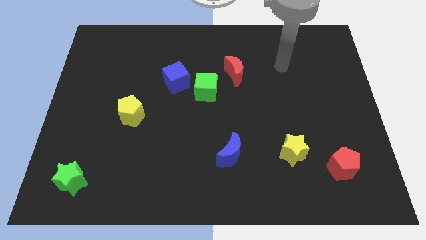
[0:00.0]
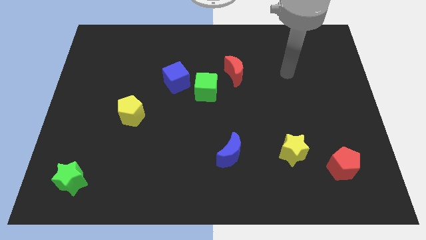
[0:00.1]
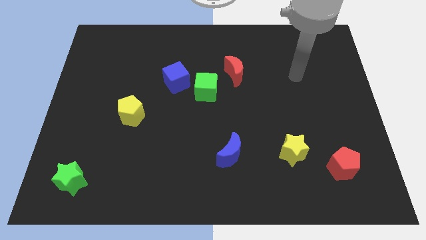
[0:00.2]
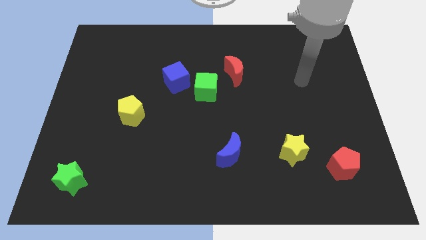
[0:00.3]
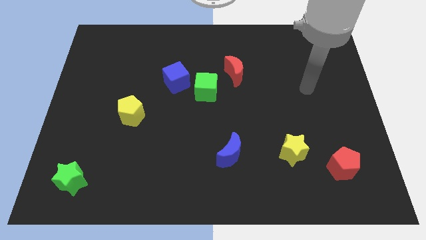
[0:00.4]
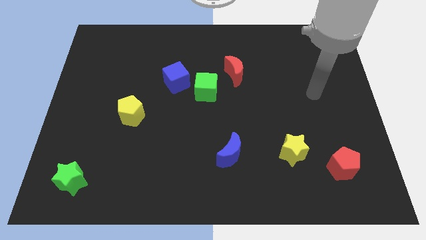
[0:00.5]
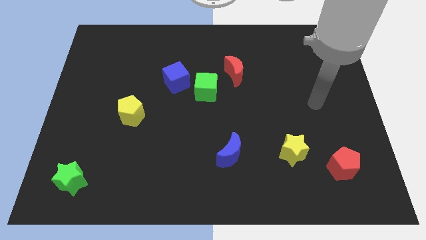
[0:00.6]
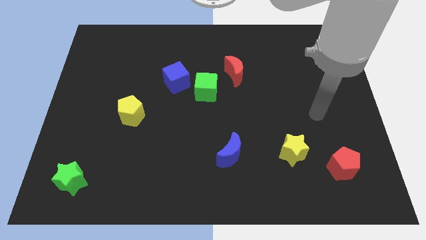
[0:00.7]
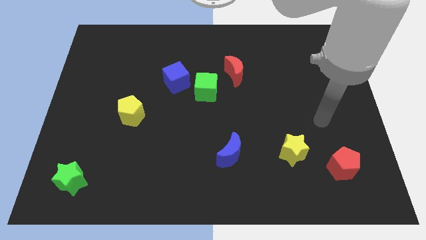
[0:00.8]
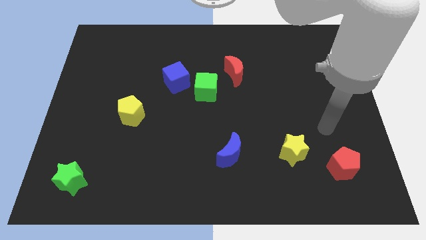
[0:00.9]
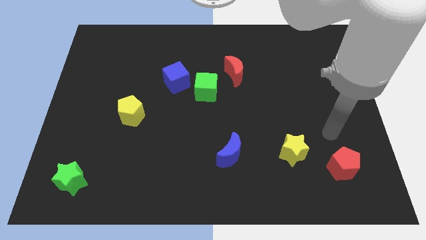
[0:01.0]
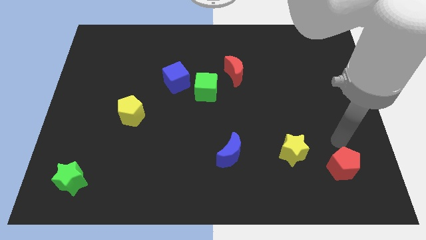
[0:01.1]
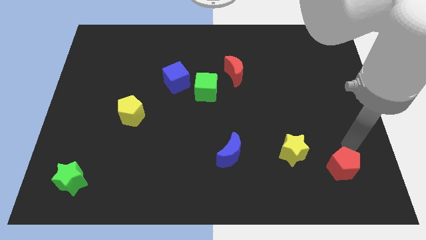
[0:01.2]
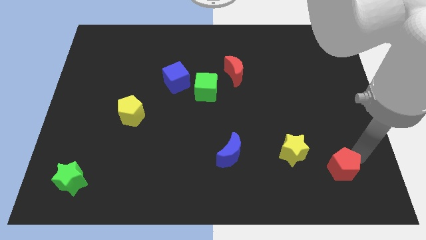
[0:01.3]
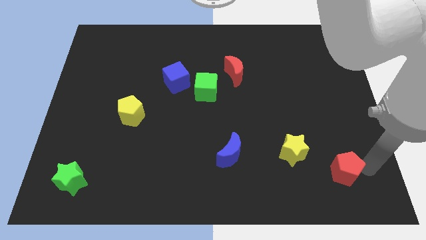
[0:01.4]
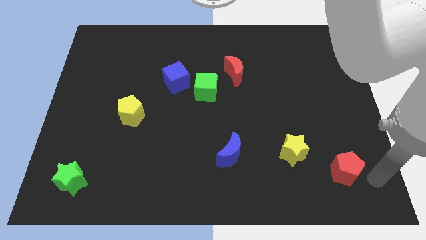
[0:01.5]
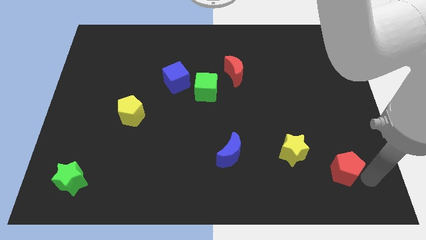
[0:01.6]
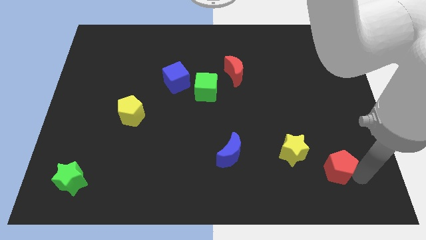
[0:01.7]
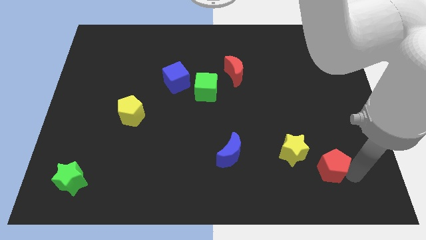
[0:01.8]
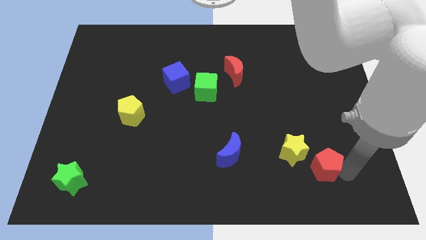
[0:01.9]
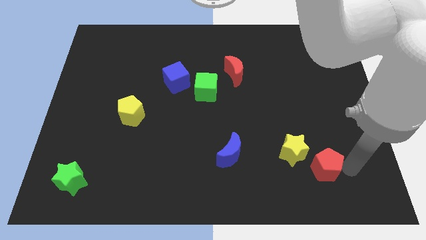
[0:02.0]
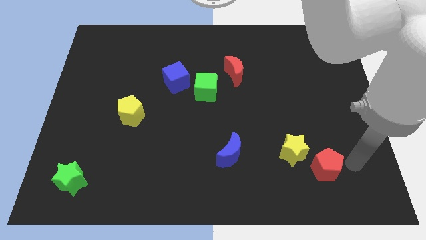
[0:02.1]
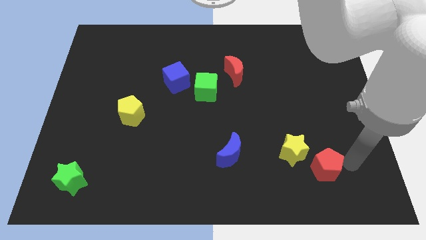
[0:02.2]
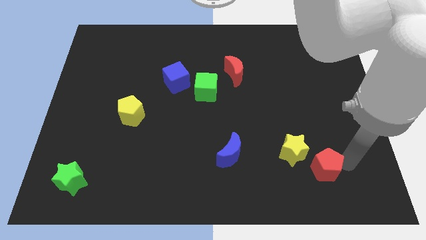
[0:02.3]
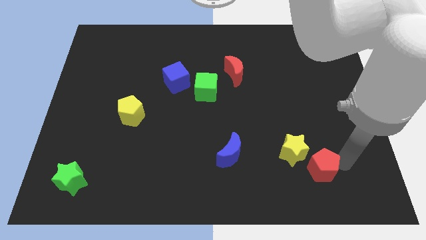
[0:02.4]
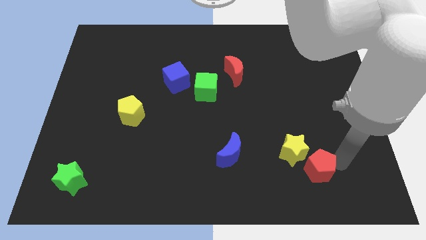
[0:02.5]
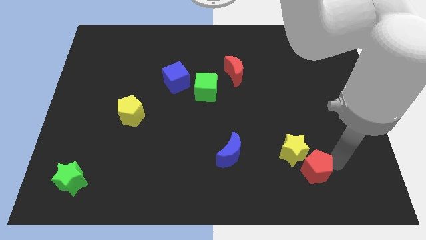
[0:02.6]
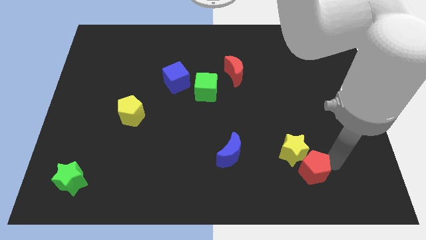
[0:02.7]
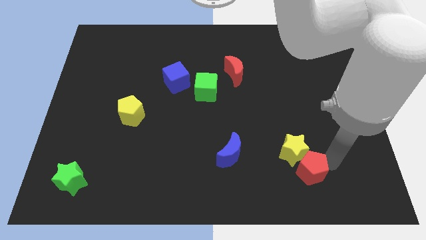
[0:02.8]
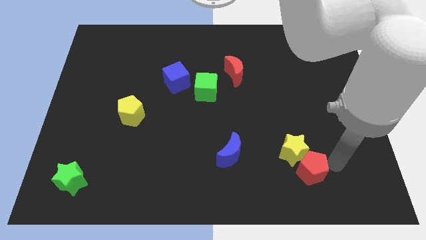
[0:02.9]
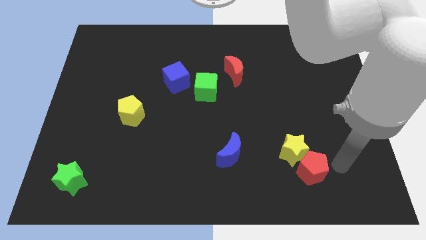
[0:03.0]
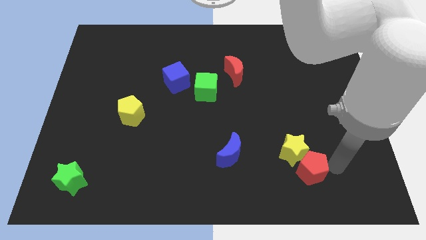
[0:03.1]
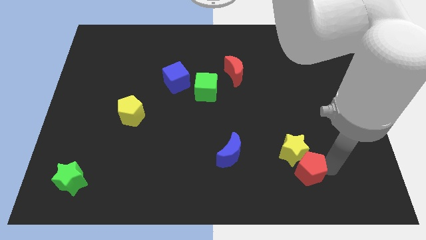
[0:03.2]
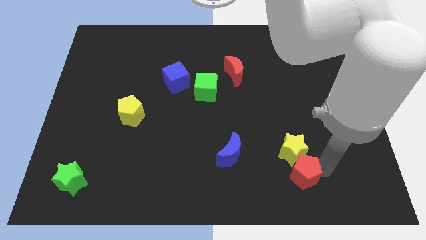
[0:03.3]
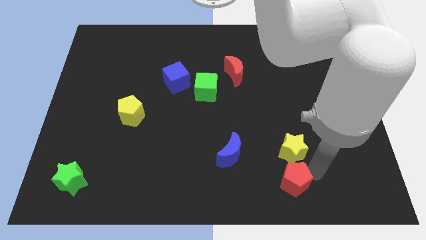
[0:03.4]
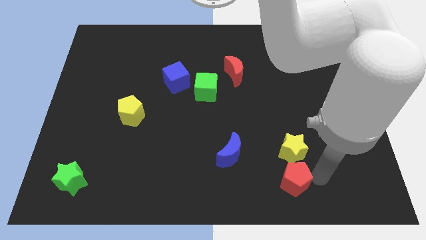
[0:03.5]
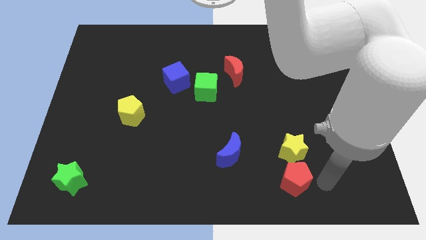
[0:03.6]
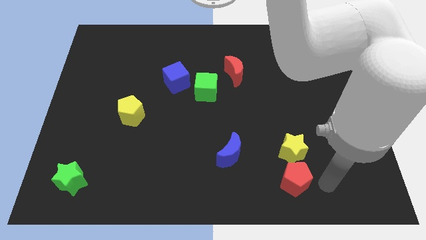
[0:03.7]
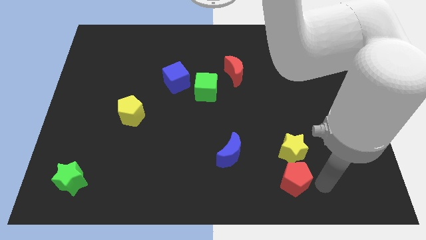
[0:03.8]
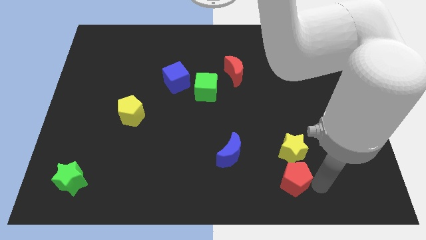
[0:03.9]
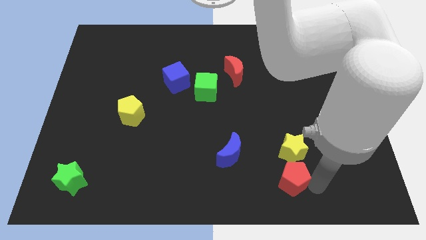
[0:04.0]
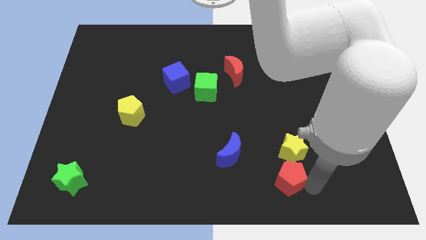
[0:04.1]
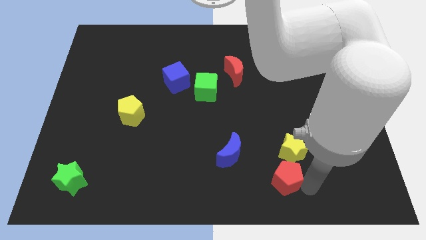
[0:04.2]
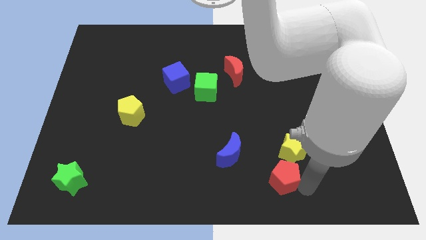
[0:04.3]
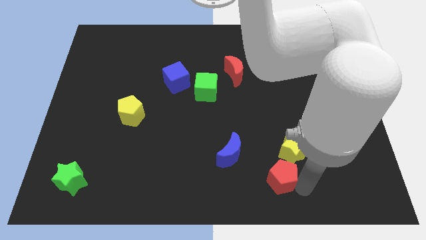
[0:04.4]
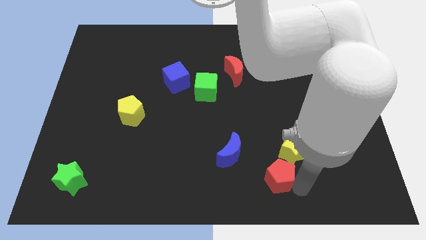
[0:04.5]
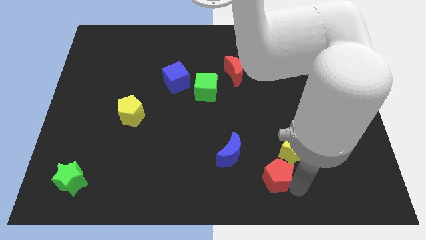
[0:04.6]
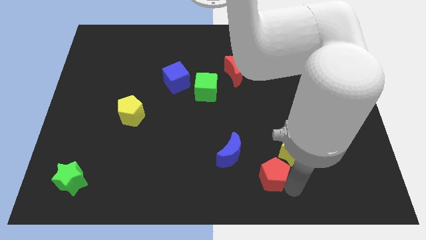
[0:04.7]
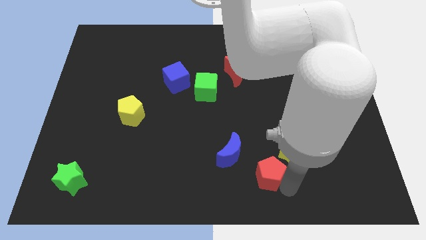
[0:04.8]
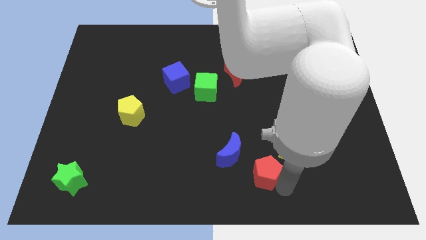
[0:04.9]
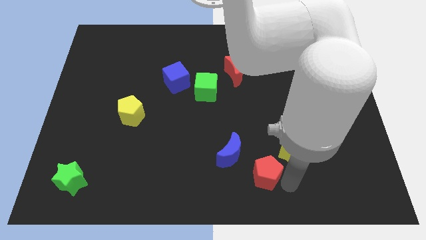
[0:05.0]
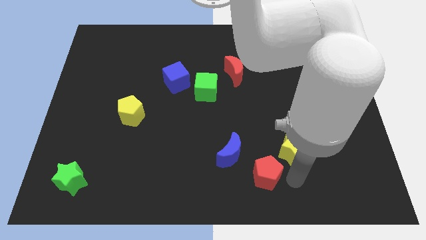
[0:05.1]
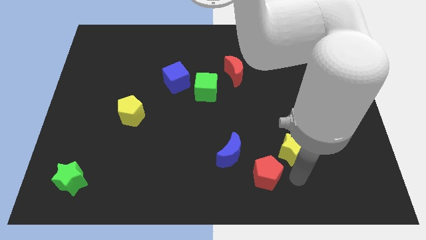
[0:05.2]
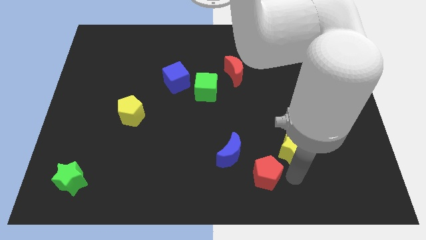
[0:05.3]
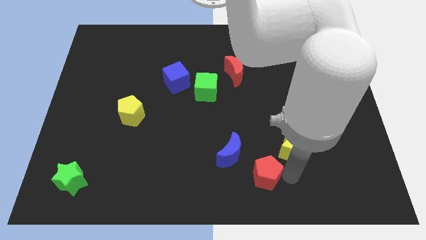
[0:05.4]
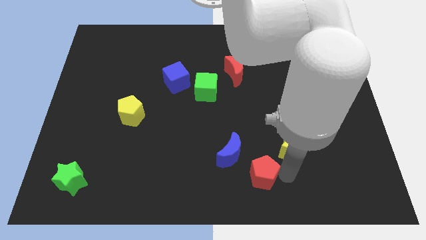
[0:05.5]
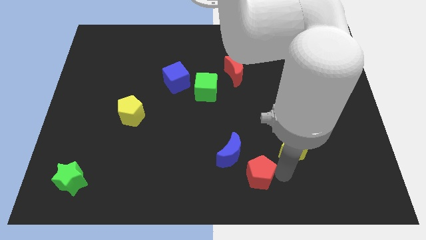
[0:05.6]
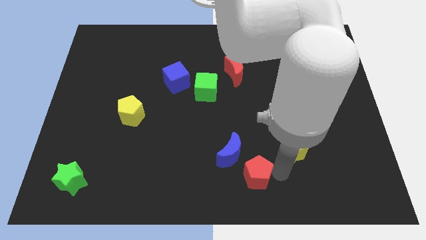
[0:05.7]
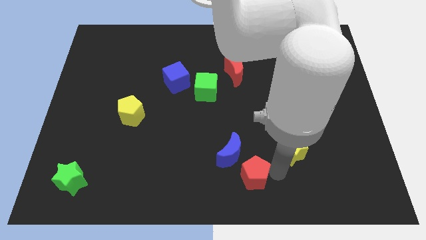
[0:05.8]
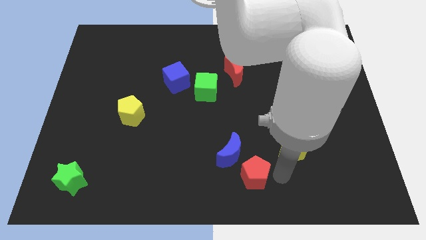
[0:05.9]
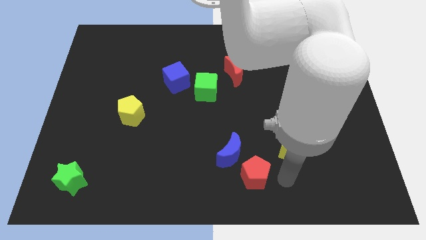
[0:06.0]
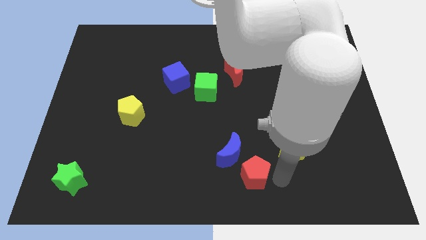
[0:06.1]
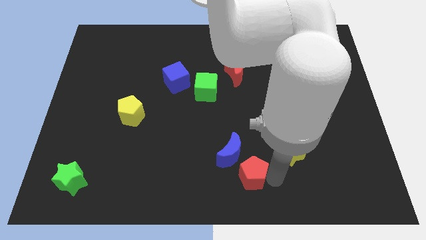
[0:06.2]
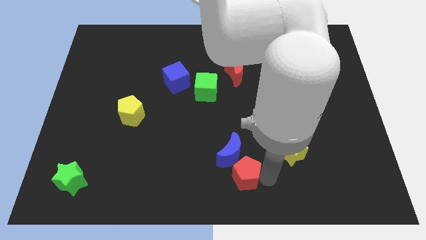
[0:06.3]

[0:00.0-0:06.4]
move the red pentagon to the left

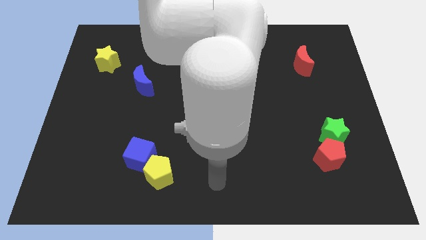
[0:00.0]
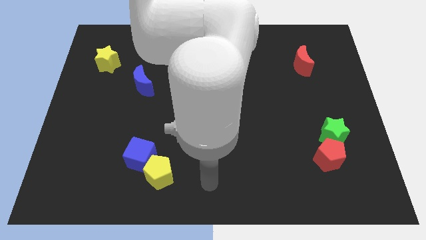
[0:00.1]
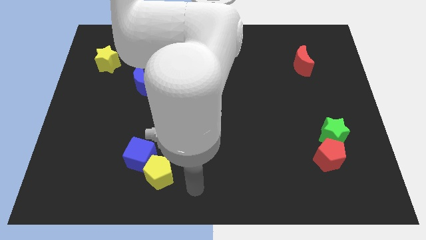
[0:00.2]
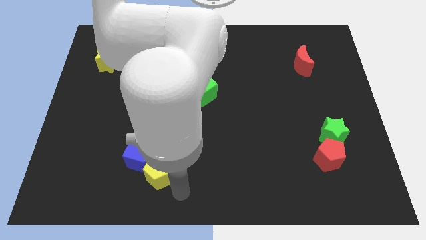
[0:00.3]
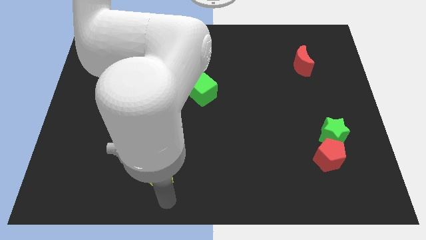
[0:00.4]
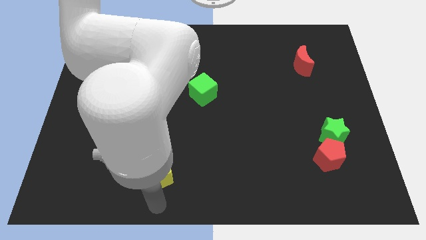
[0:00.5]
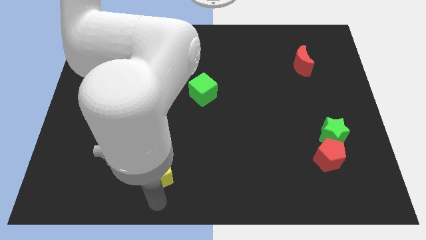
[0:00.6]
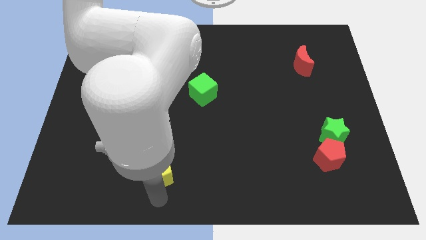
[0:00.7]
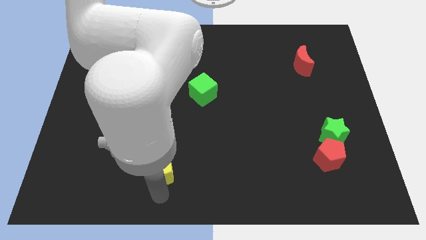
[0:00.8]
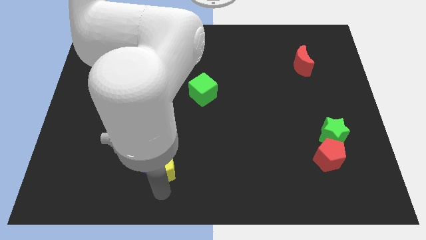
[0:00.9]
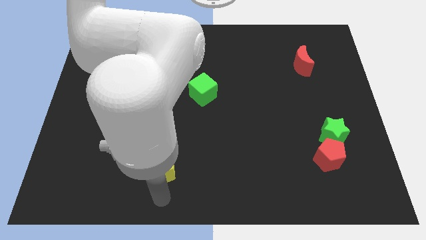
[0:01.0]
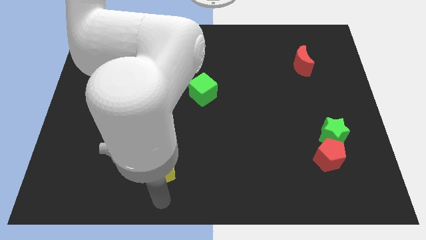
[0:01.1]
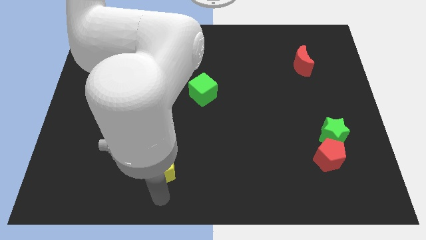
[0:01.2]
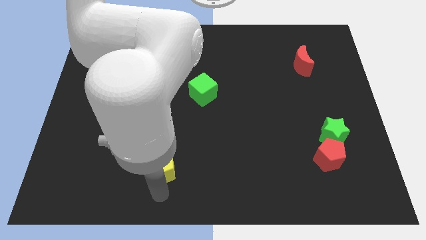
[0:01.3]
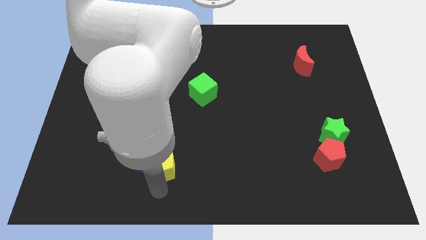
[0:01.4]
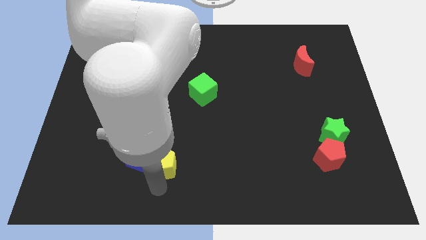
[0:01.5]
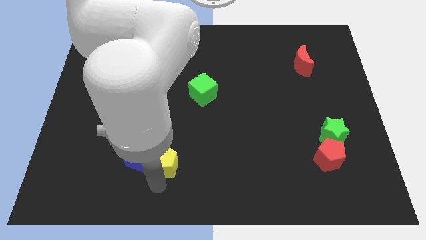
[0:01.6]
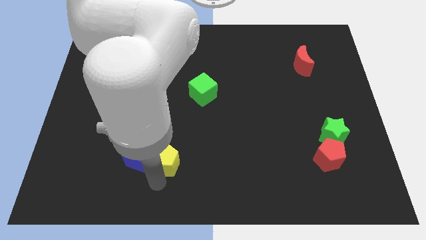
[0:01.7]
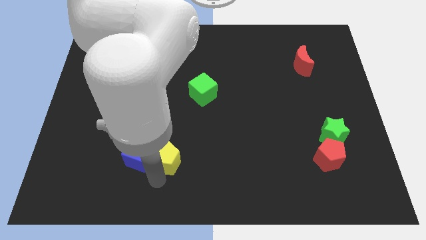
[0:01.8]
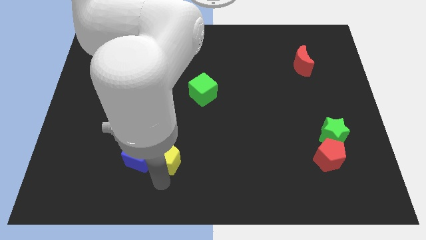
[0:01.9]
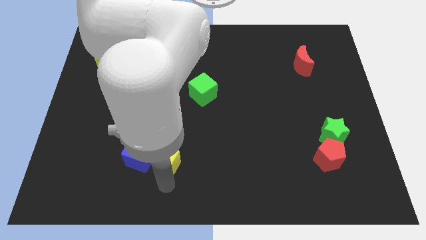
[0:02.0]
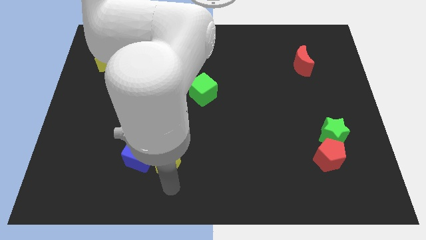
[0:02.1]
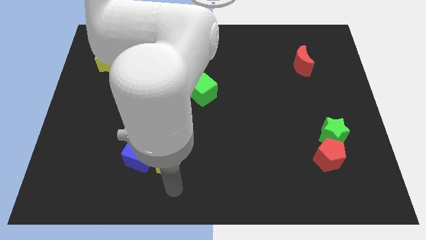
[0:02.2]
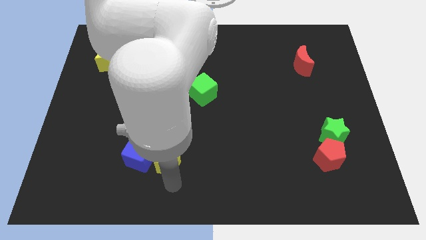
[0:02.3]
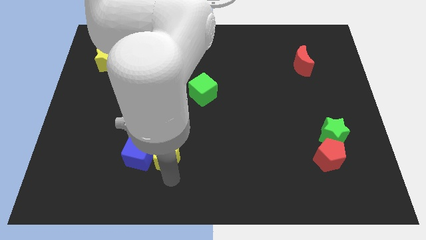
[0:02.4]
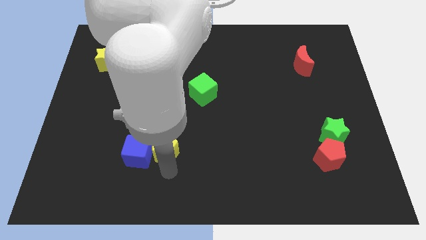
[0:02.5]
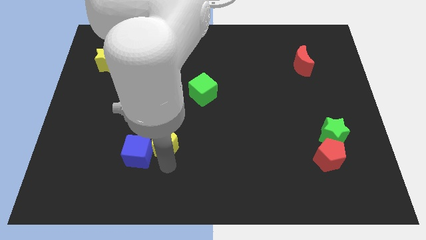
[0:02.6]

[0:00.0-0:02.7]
slightly push the yellow pentagon up
